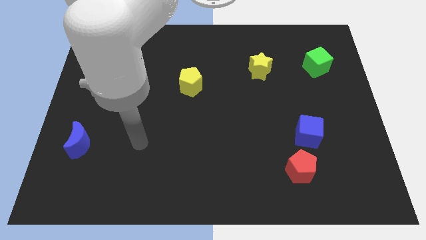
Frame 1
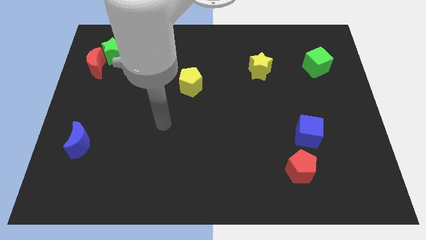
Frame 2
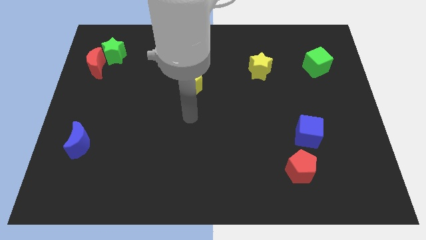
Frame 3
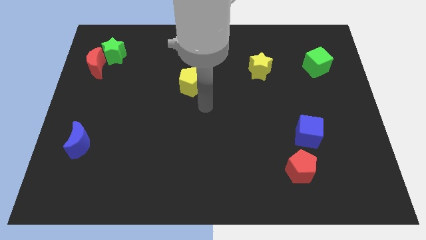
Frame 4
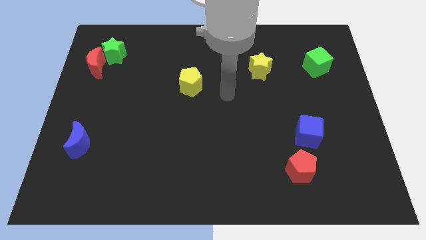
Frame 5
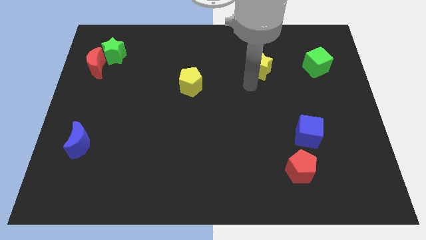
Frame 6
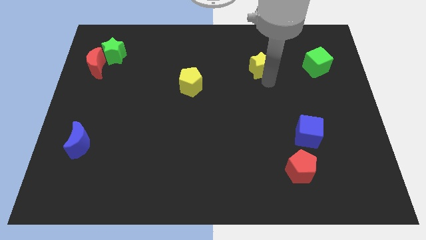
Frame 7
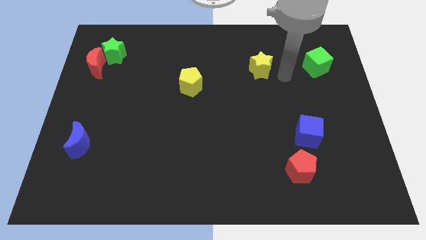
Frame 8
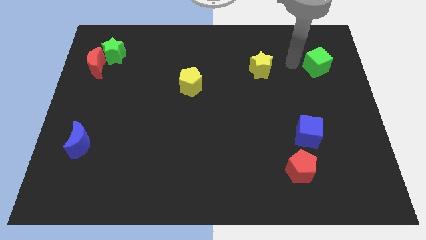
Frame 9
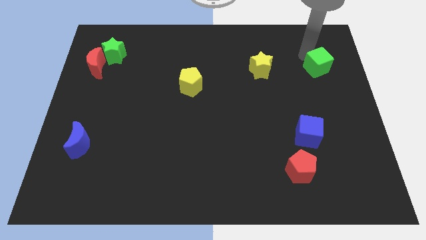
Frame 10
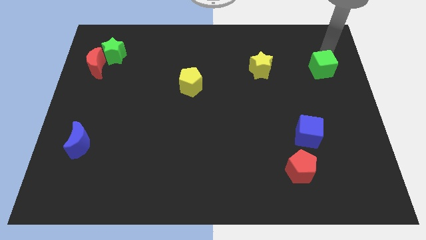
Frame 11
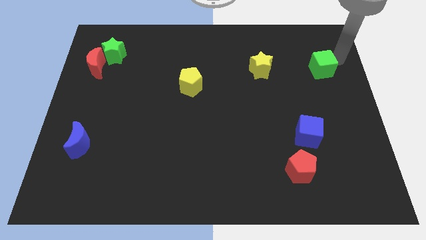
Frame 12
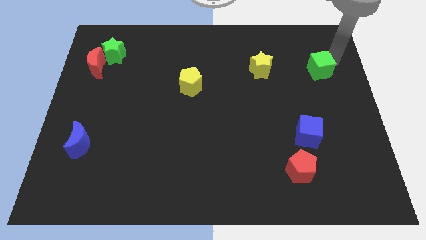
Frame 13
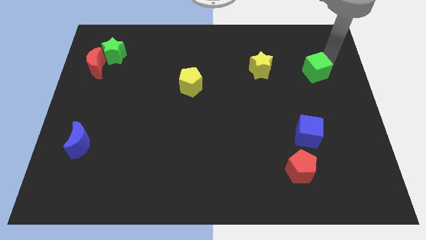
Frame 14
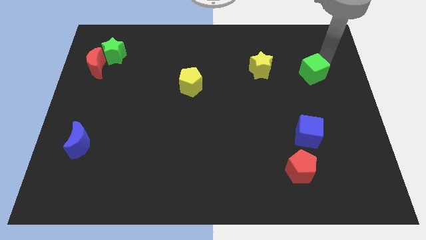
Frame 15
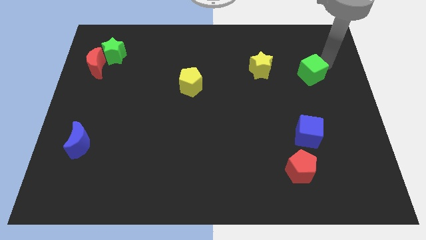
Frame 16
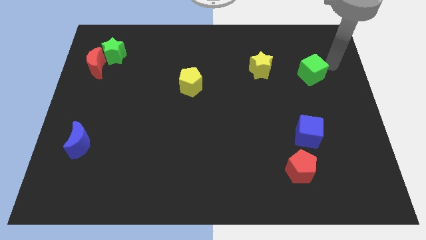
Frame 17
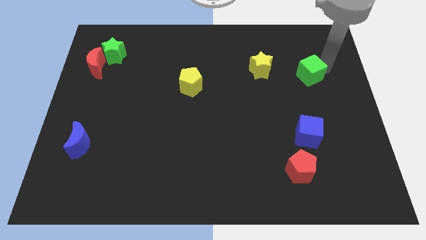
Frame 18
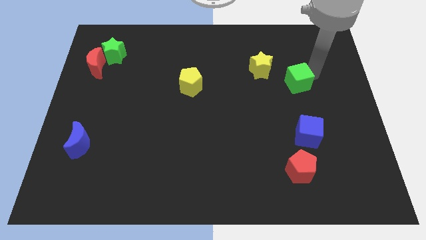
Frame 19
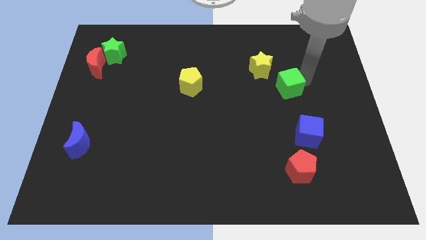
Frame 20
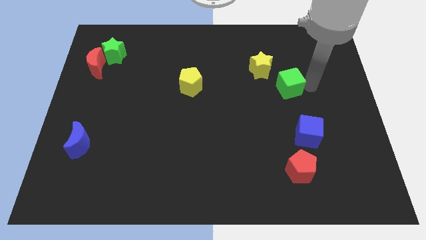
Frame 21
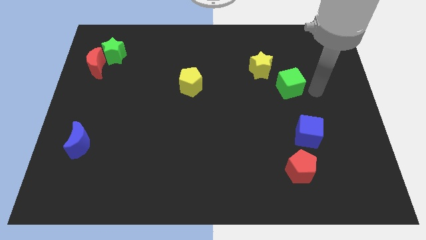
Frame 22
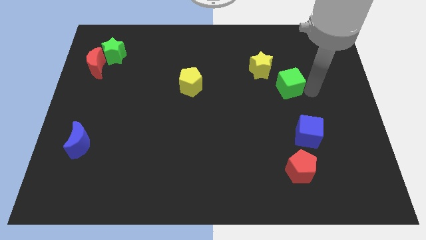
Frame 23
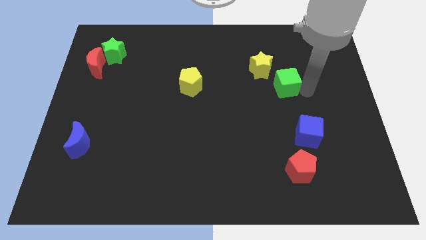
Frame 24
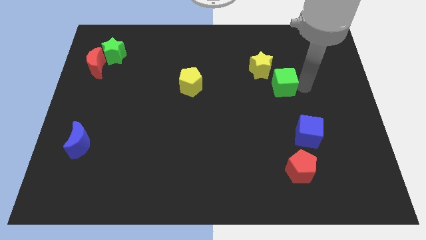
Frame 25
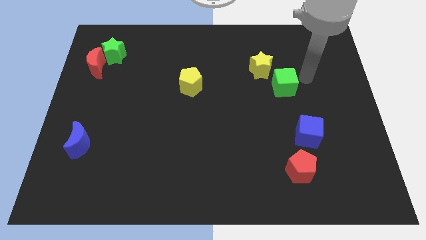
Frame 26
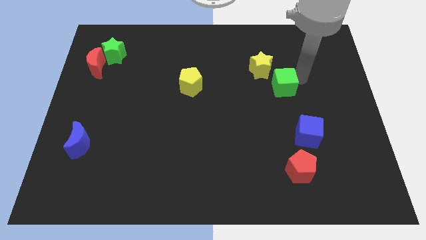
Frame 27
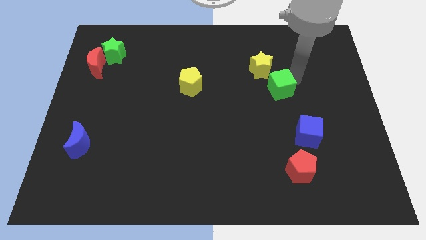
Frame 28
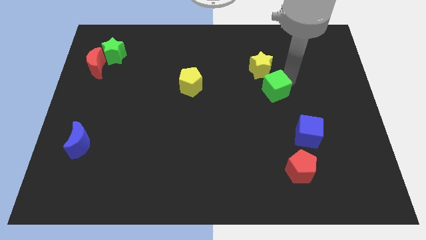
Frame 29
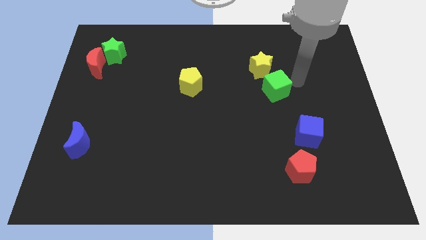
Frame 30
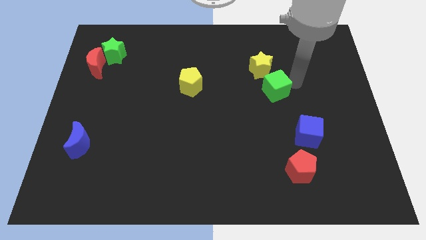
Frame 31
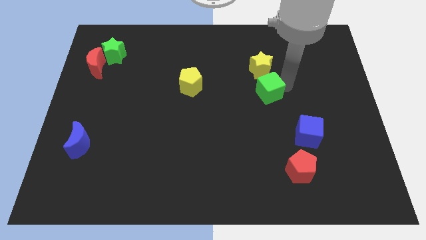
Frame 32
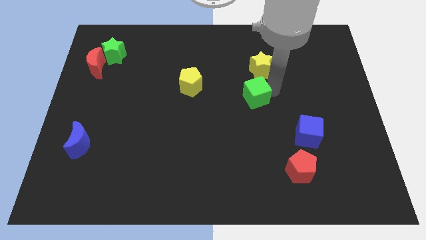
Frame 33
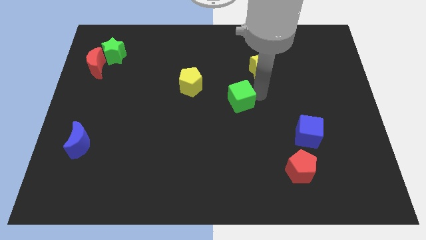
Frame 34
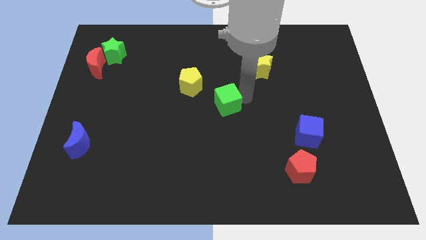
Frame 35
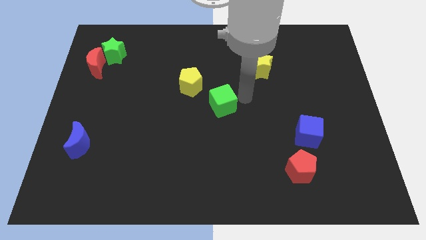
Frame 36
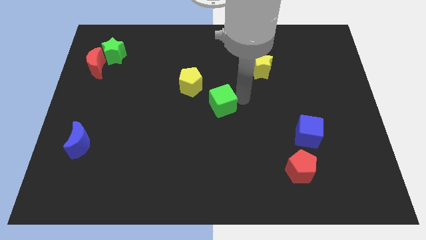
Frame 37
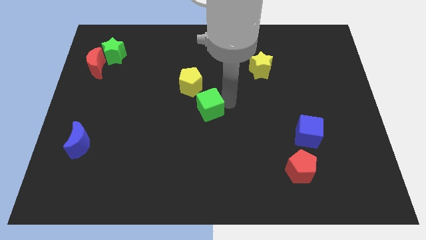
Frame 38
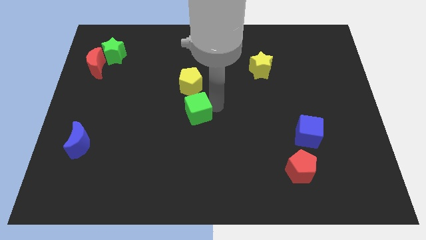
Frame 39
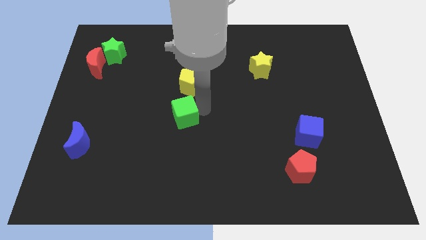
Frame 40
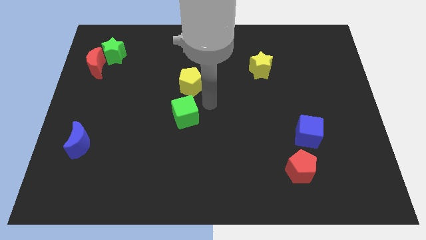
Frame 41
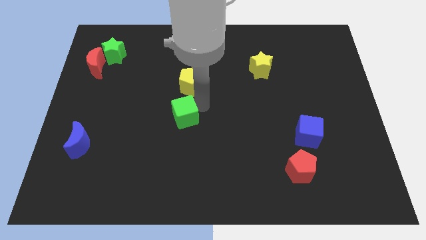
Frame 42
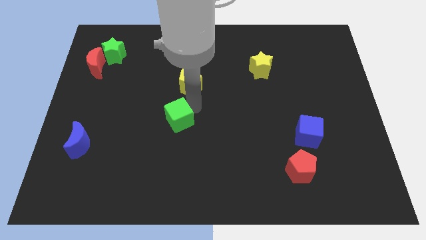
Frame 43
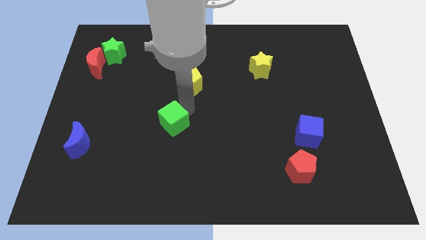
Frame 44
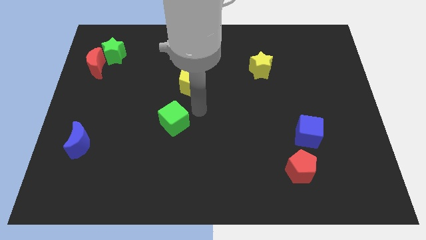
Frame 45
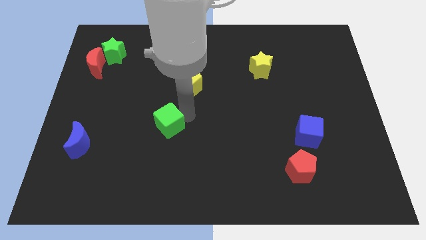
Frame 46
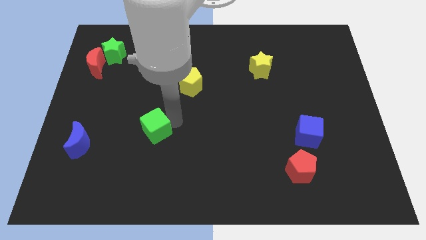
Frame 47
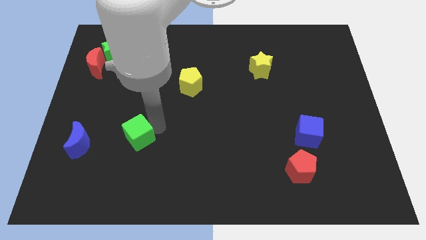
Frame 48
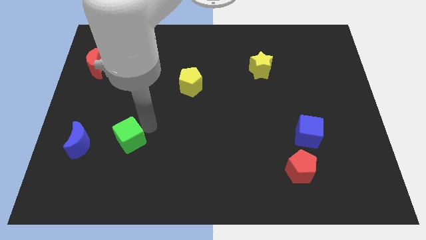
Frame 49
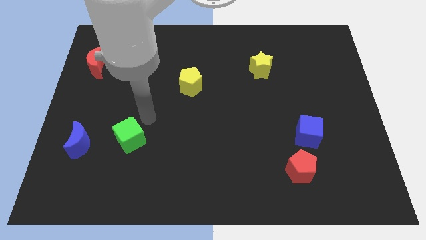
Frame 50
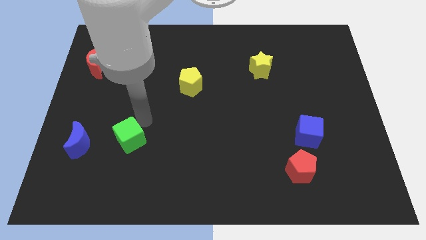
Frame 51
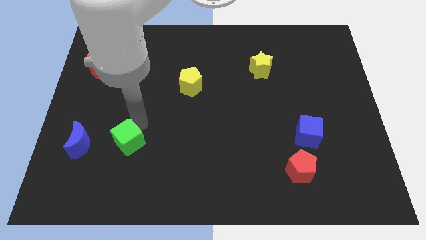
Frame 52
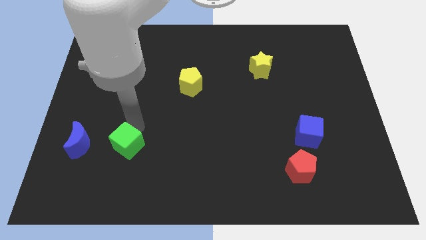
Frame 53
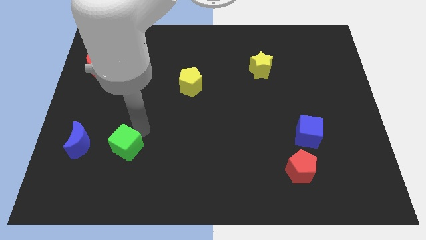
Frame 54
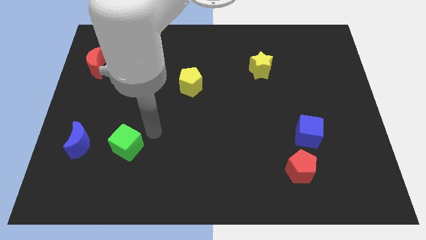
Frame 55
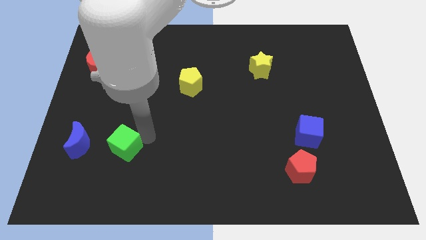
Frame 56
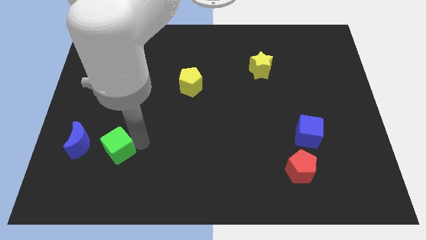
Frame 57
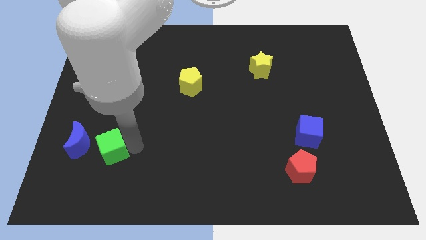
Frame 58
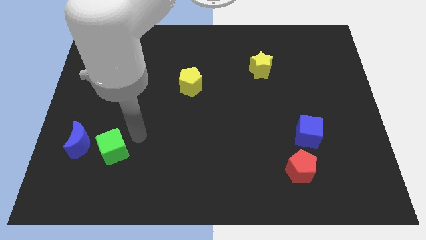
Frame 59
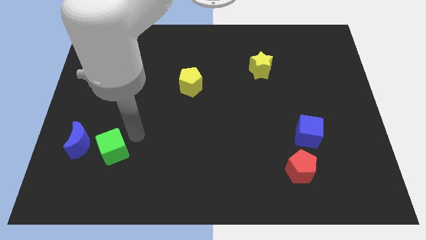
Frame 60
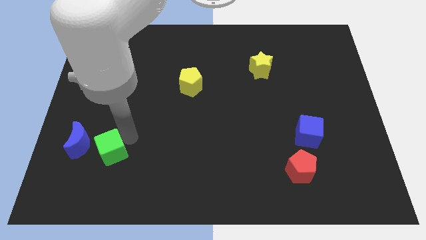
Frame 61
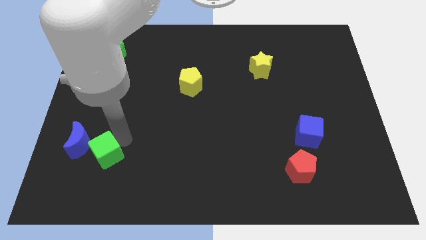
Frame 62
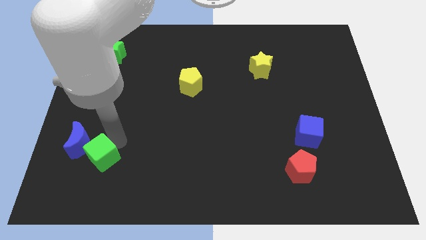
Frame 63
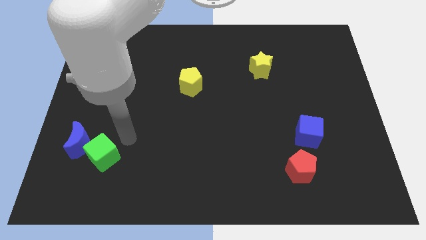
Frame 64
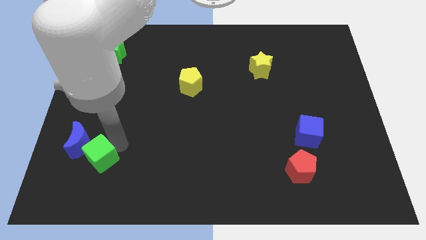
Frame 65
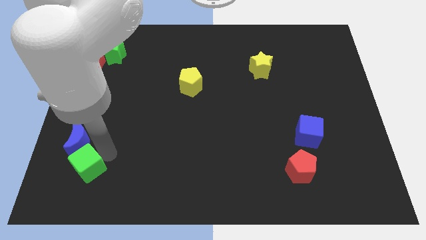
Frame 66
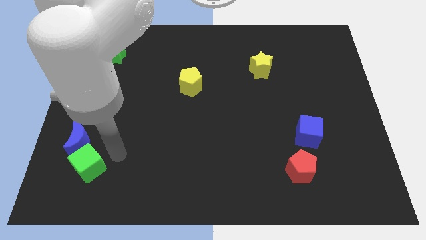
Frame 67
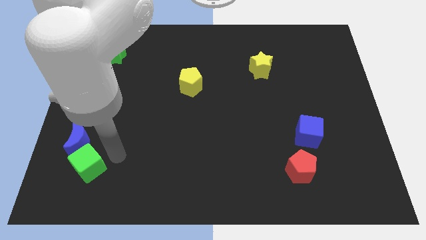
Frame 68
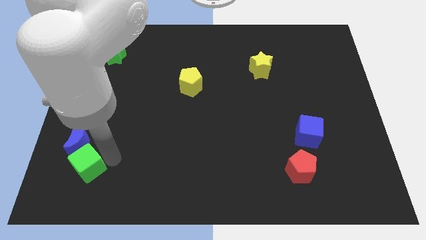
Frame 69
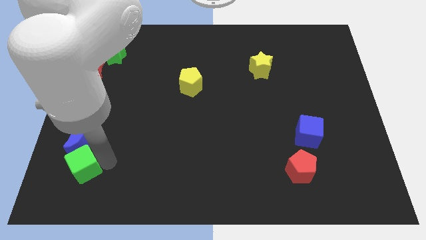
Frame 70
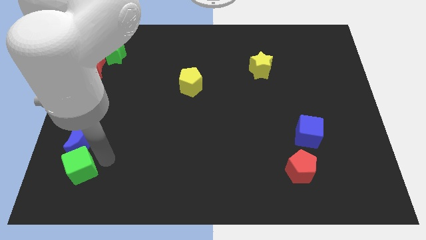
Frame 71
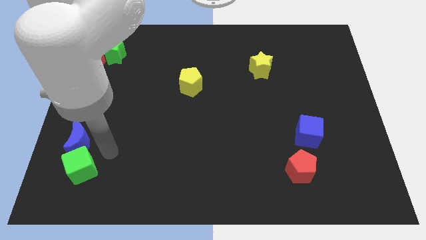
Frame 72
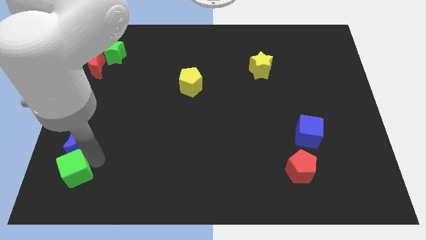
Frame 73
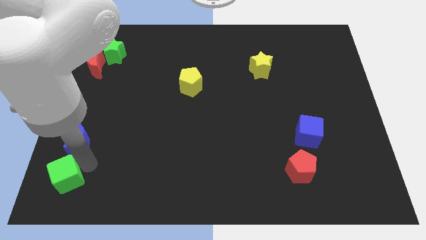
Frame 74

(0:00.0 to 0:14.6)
push the green cube to the bottom left corner
